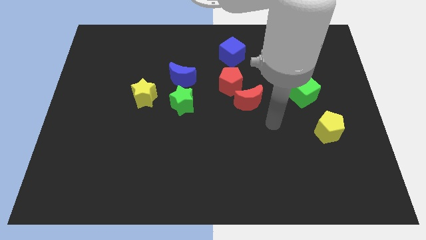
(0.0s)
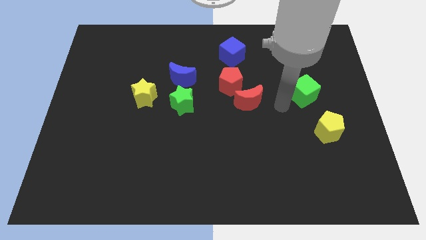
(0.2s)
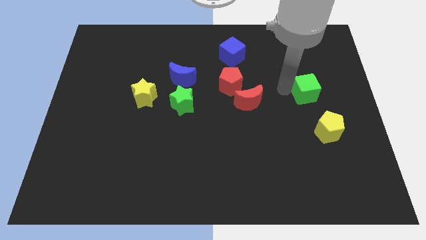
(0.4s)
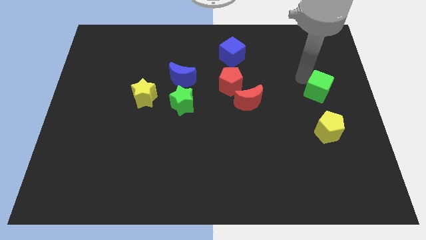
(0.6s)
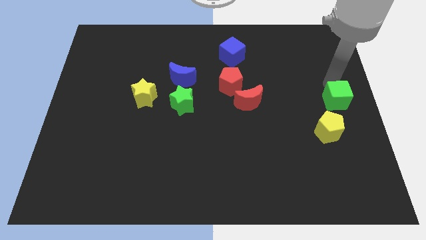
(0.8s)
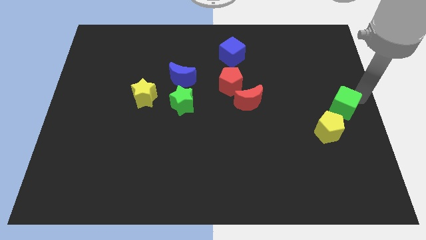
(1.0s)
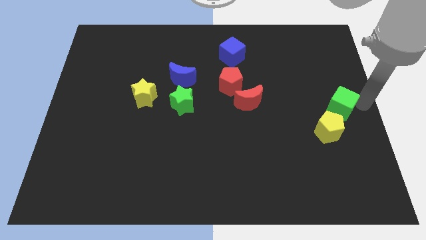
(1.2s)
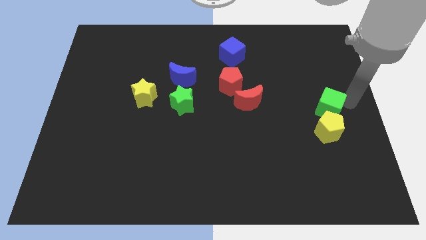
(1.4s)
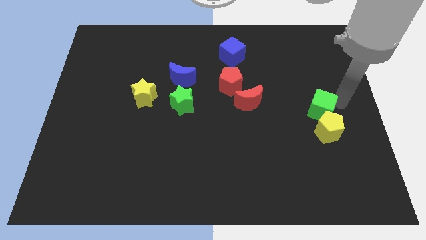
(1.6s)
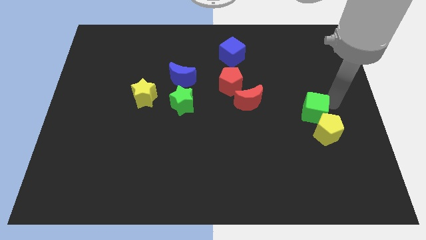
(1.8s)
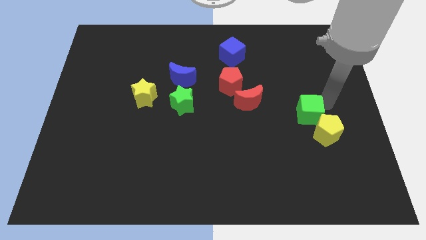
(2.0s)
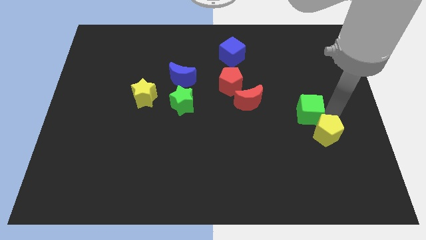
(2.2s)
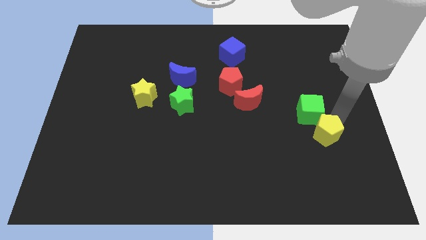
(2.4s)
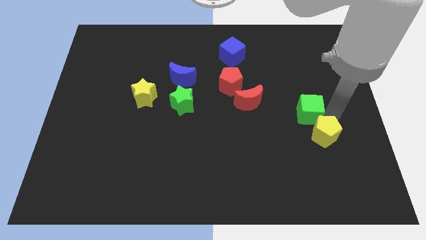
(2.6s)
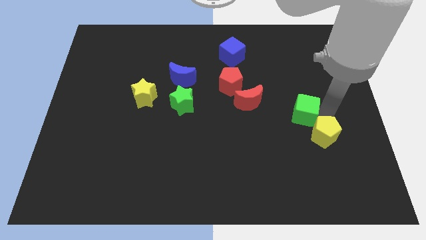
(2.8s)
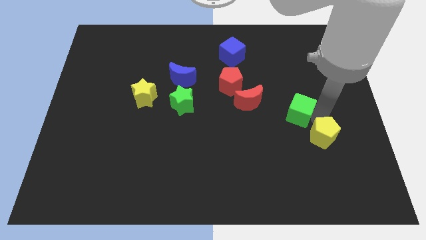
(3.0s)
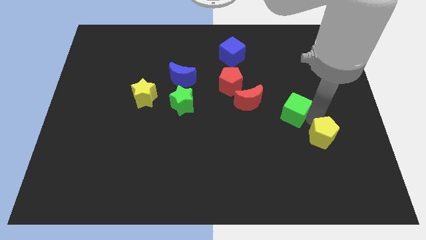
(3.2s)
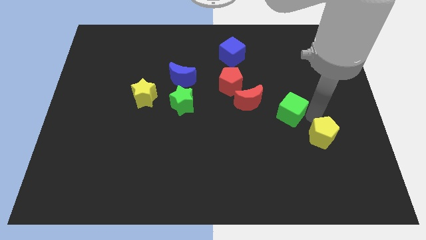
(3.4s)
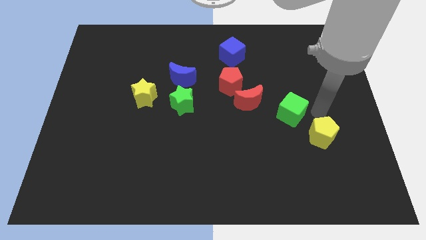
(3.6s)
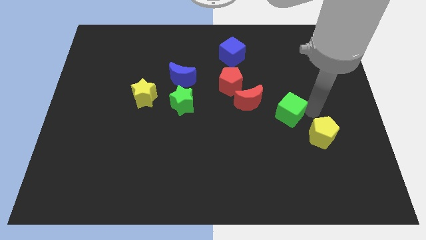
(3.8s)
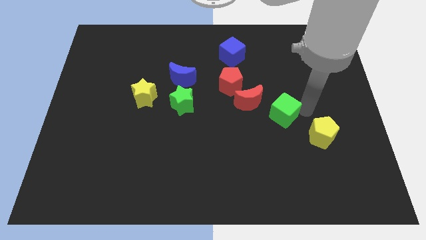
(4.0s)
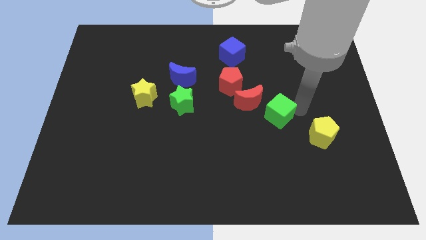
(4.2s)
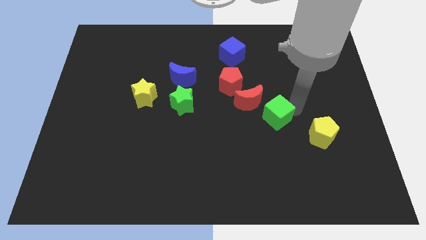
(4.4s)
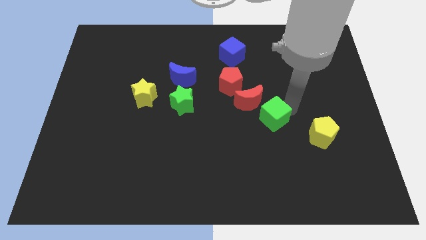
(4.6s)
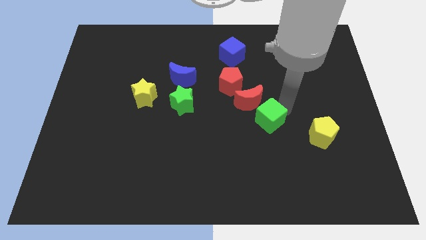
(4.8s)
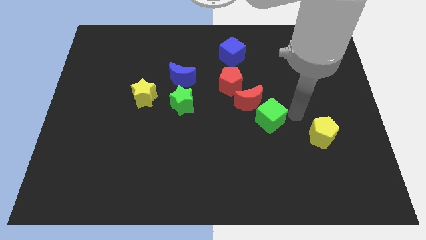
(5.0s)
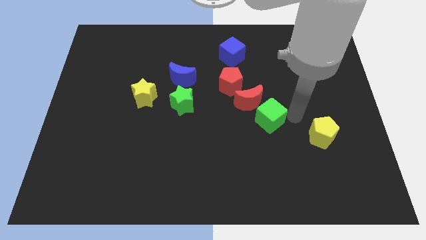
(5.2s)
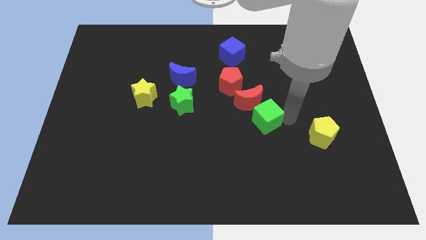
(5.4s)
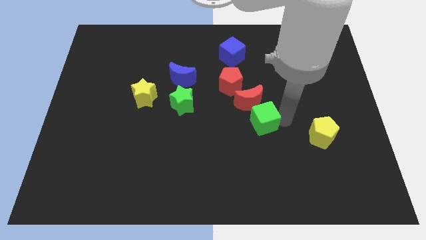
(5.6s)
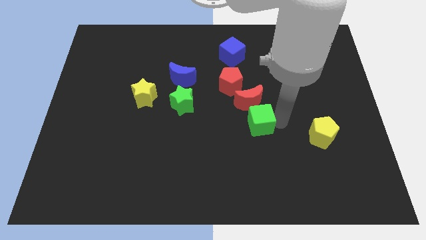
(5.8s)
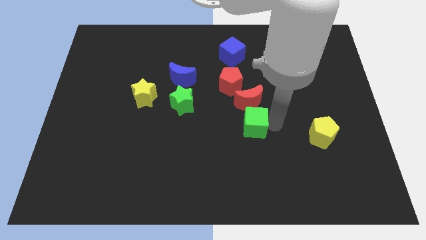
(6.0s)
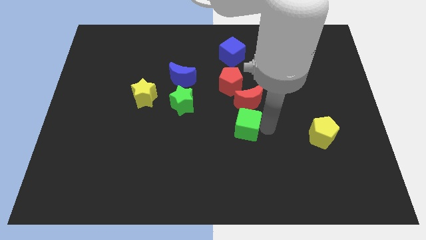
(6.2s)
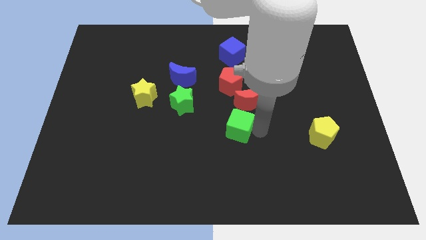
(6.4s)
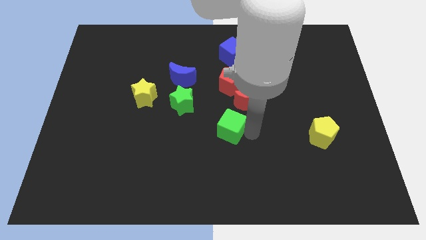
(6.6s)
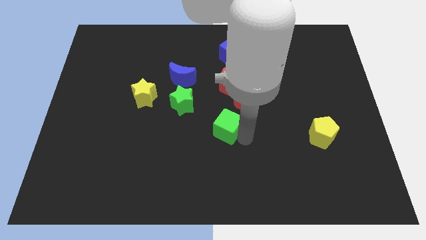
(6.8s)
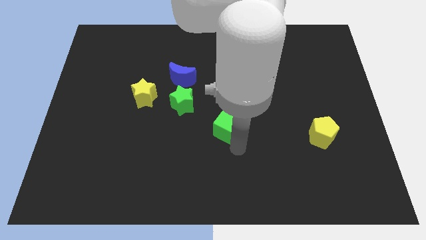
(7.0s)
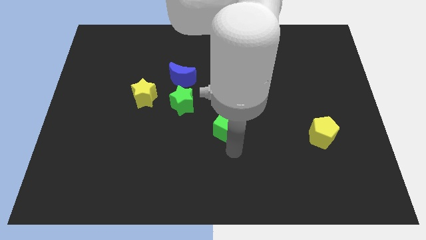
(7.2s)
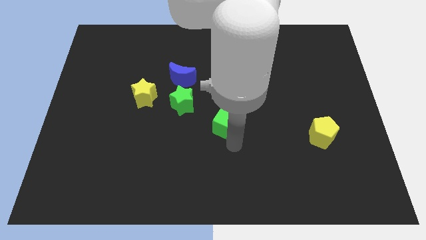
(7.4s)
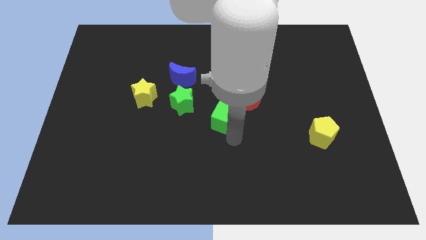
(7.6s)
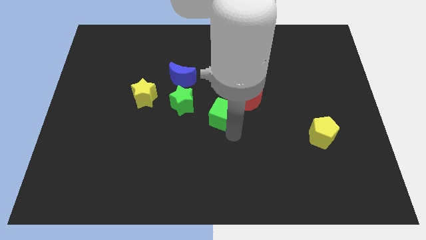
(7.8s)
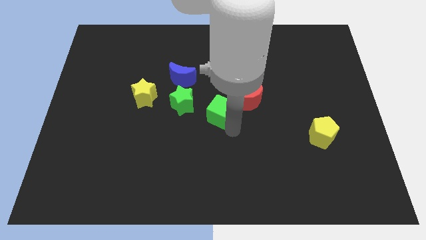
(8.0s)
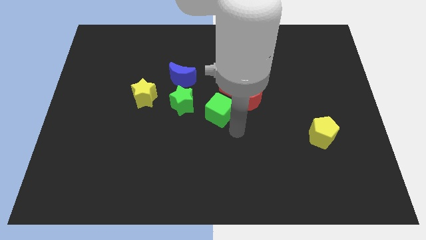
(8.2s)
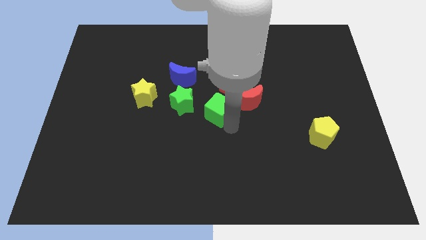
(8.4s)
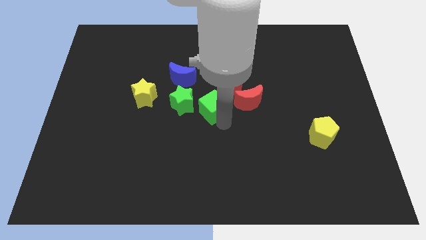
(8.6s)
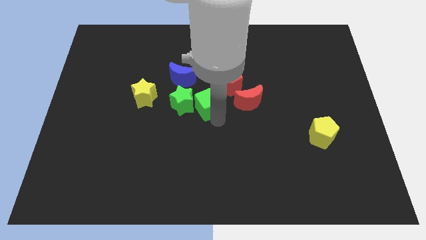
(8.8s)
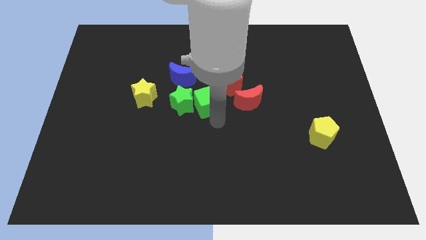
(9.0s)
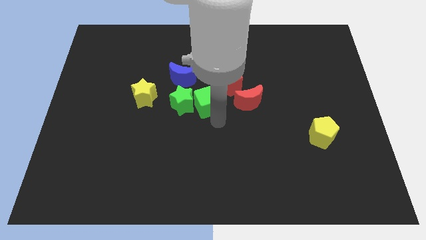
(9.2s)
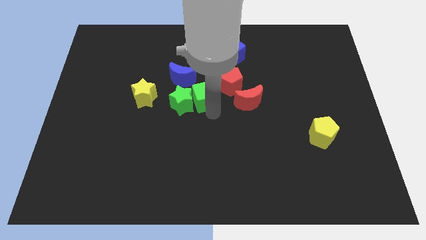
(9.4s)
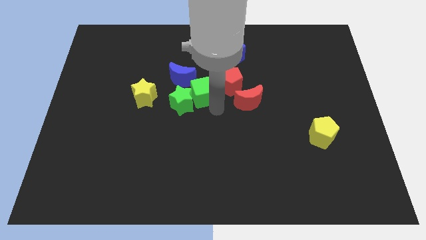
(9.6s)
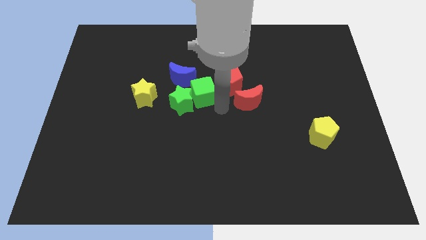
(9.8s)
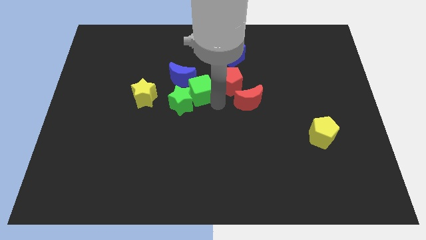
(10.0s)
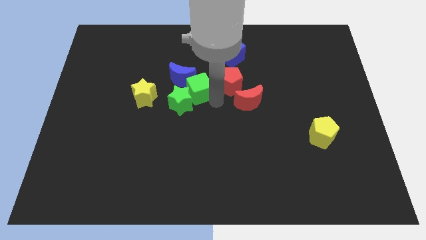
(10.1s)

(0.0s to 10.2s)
push the green cube to the blue moon

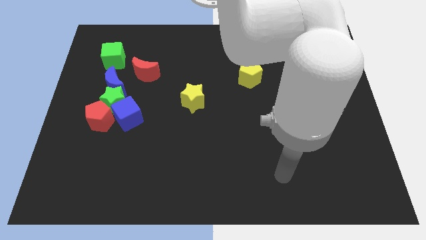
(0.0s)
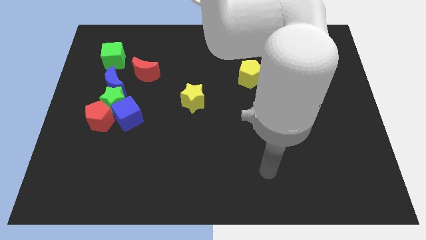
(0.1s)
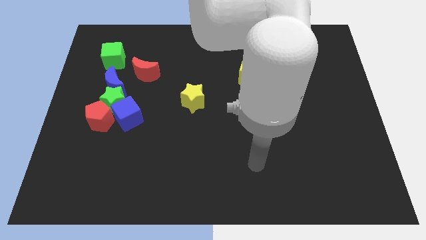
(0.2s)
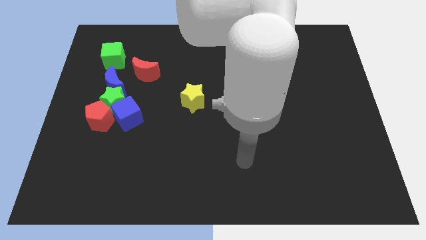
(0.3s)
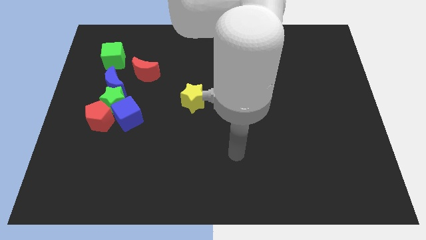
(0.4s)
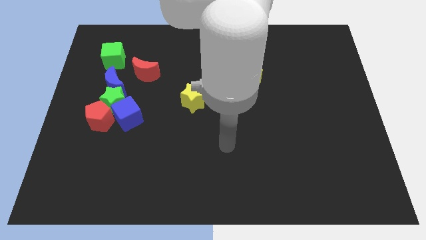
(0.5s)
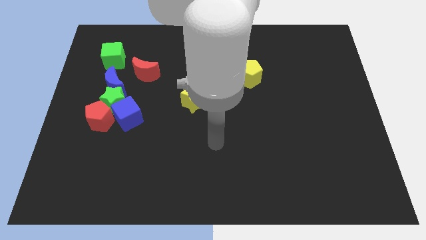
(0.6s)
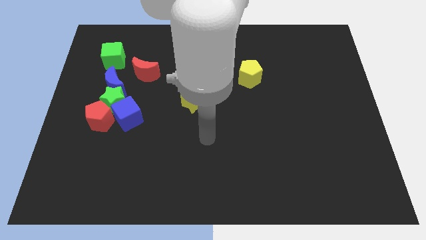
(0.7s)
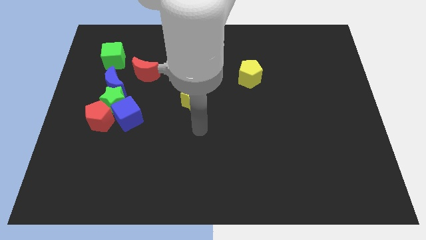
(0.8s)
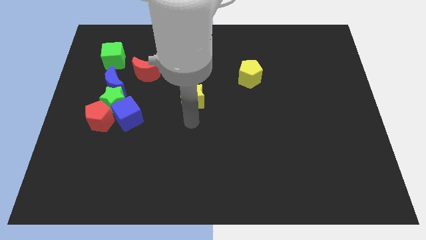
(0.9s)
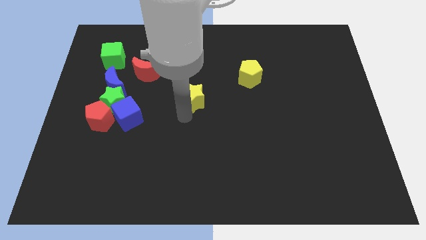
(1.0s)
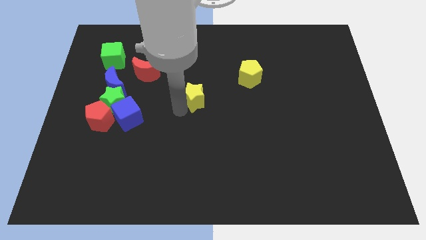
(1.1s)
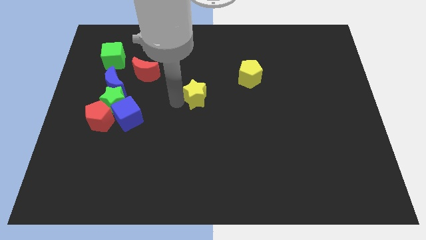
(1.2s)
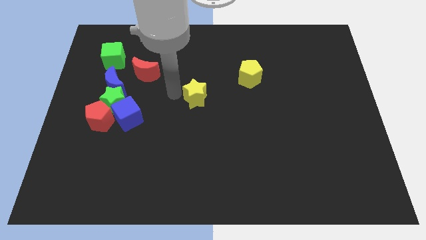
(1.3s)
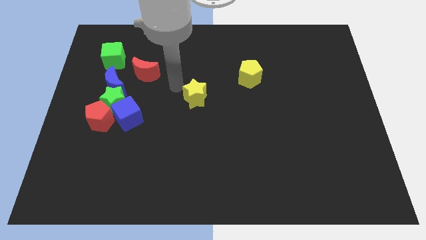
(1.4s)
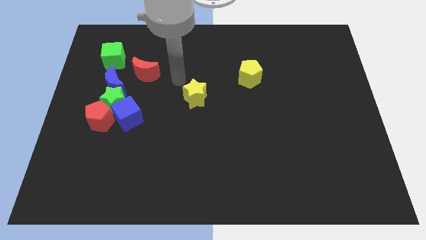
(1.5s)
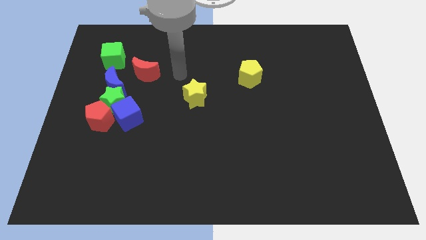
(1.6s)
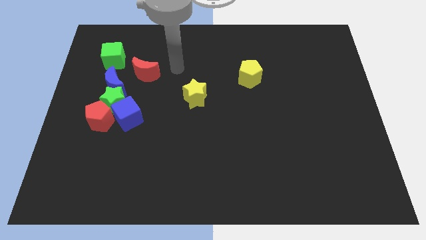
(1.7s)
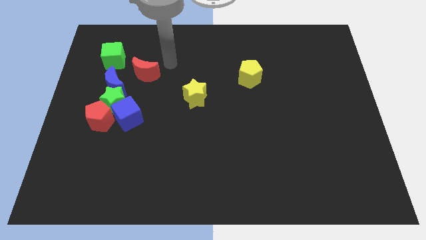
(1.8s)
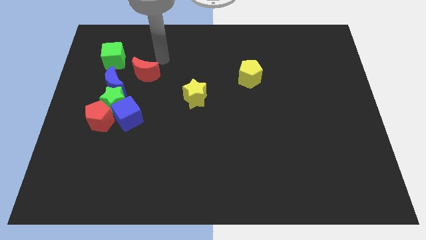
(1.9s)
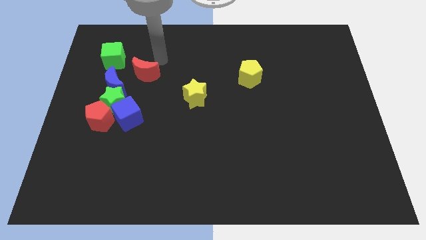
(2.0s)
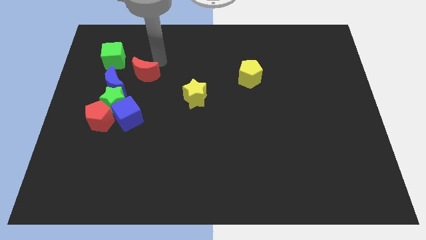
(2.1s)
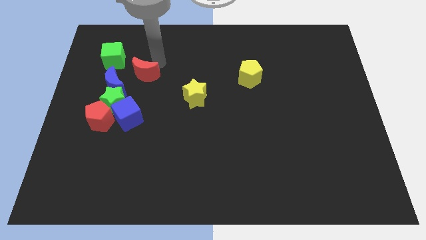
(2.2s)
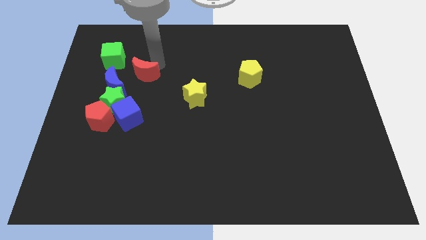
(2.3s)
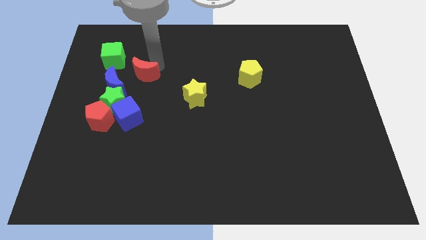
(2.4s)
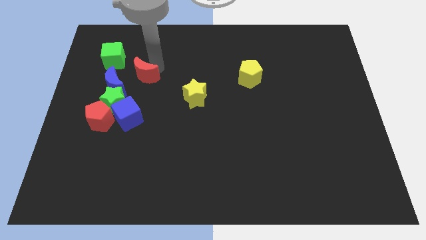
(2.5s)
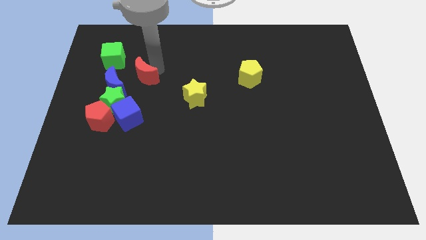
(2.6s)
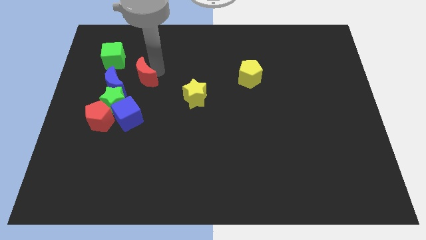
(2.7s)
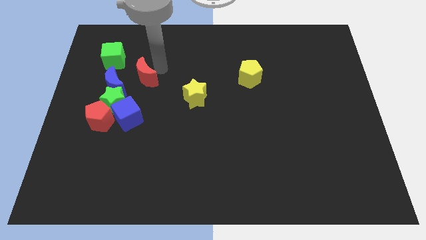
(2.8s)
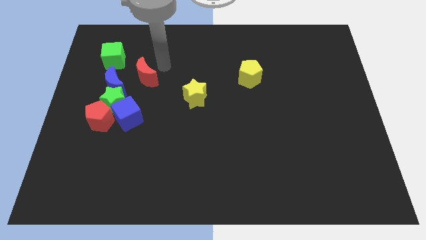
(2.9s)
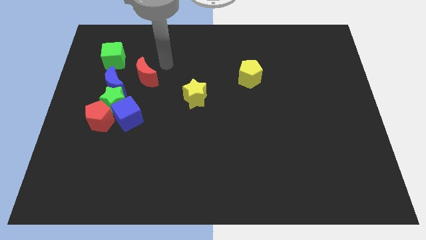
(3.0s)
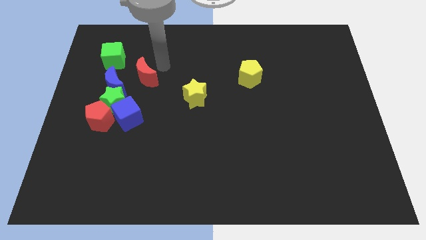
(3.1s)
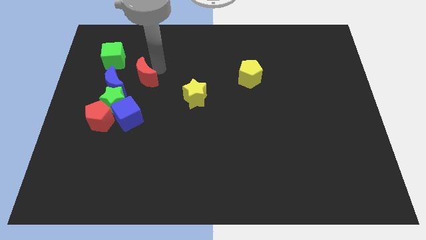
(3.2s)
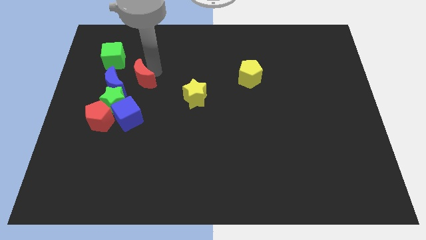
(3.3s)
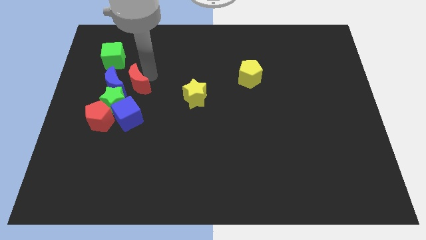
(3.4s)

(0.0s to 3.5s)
move the red moon close to the blue moon
